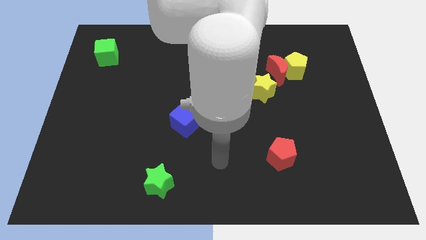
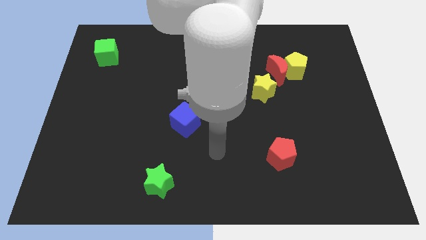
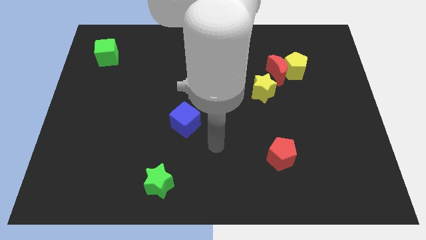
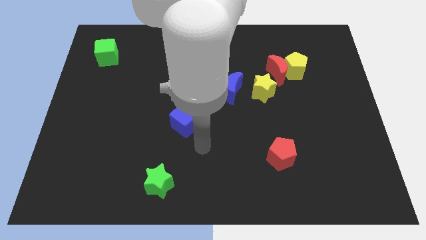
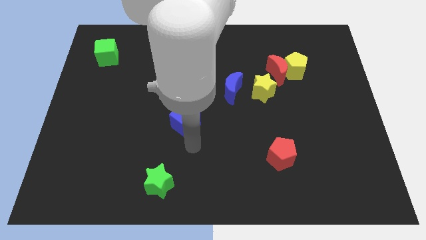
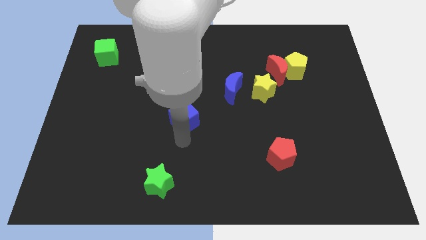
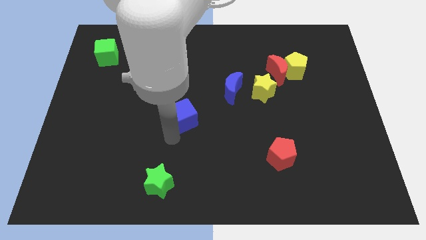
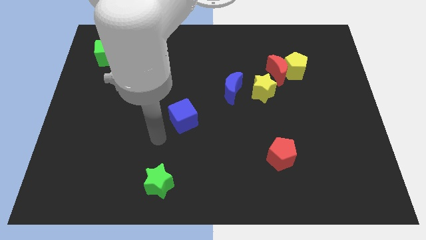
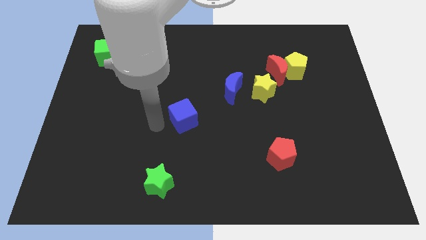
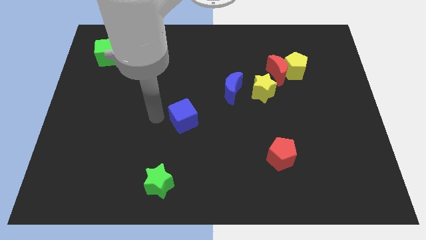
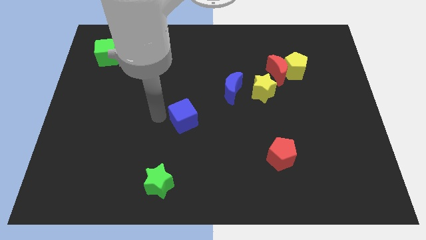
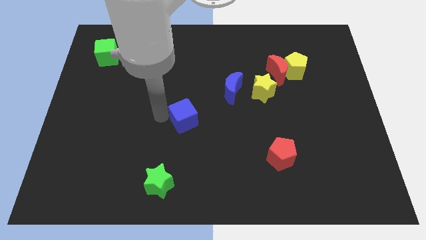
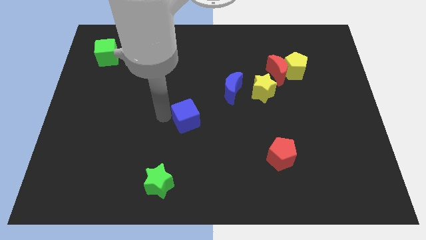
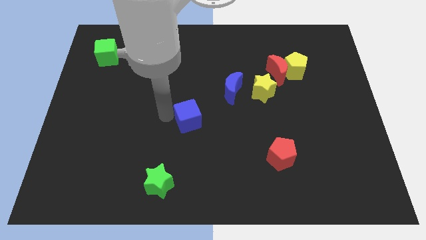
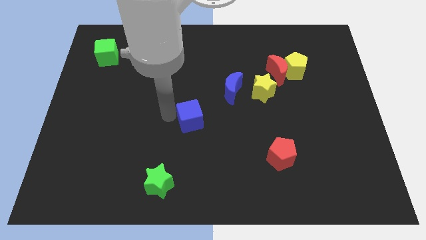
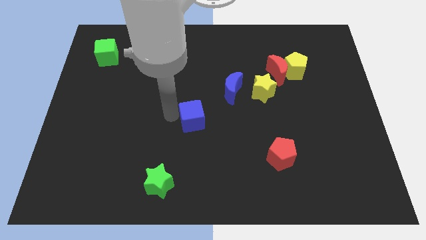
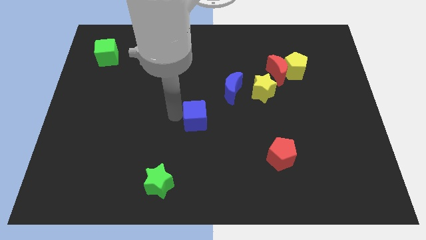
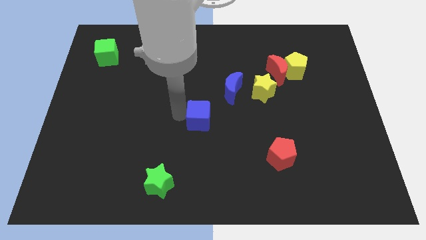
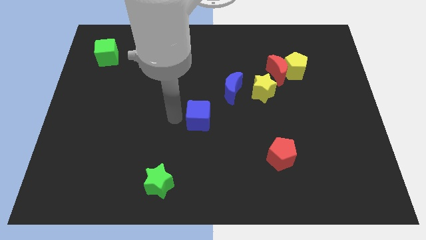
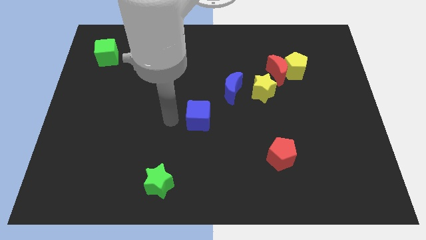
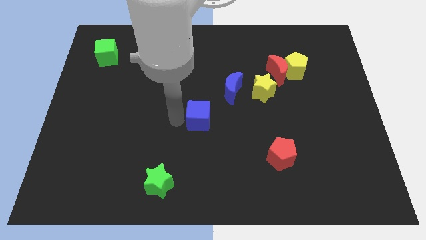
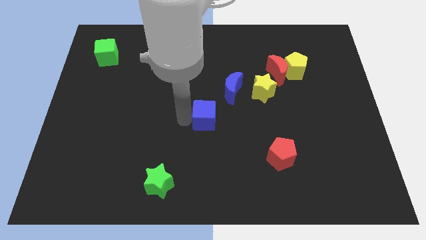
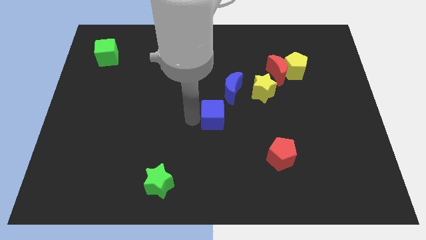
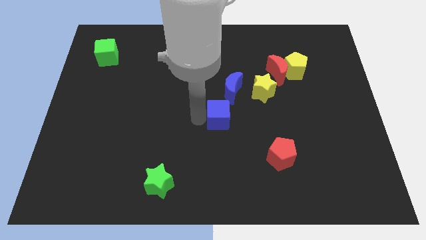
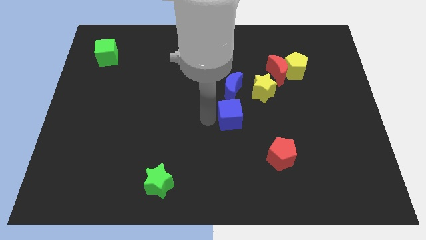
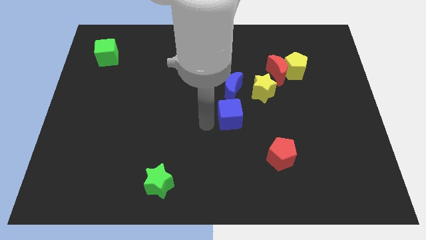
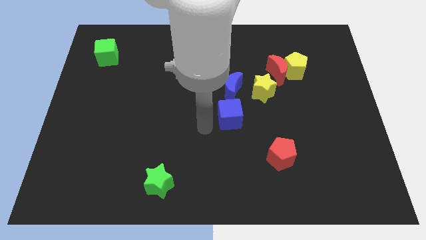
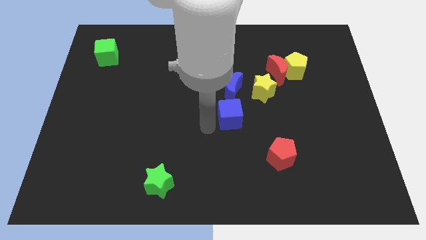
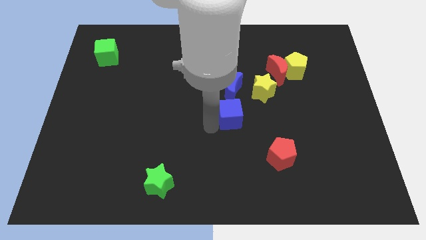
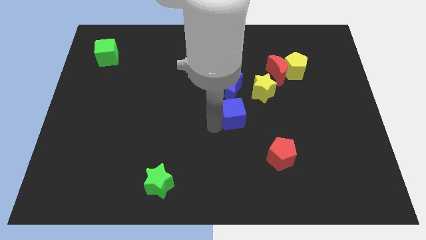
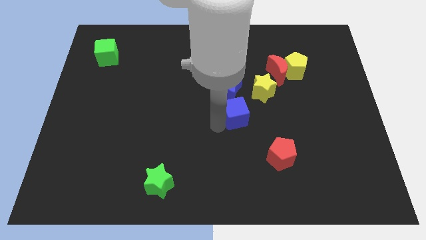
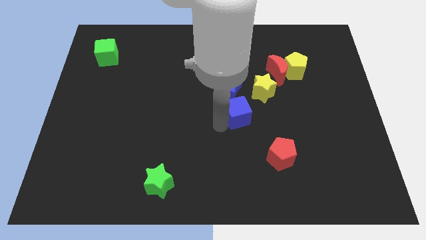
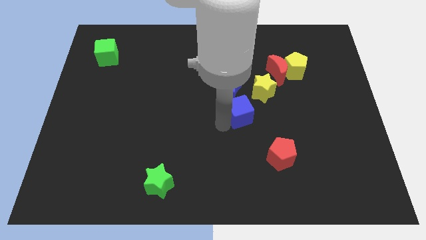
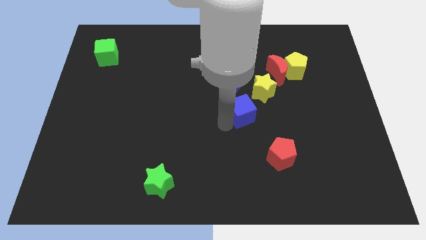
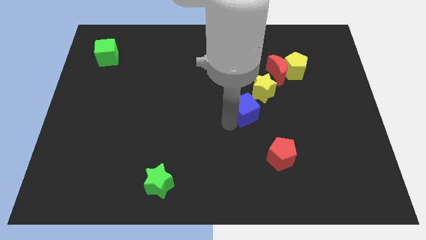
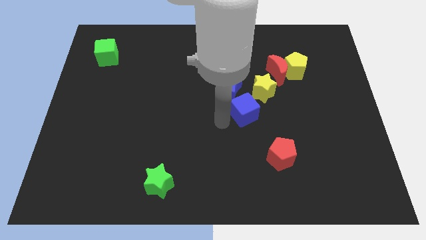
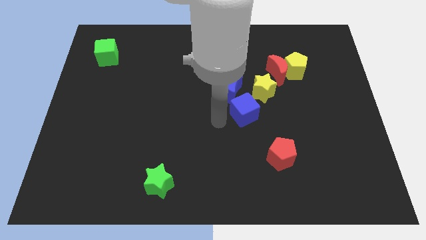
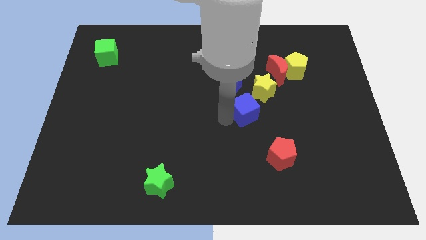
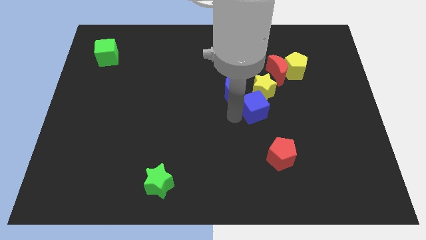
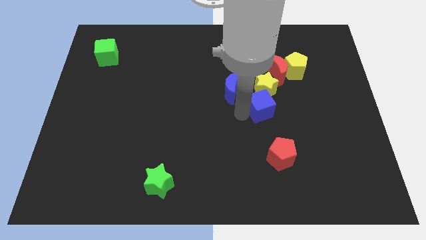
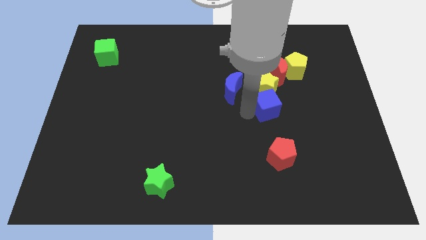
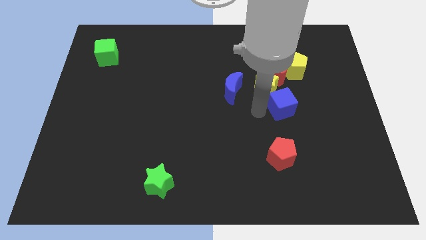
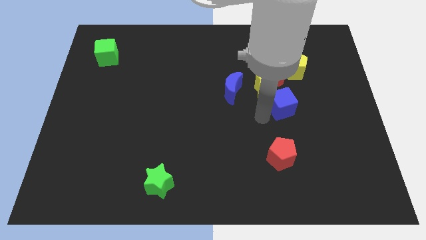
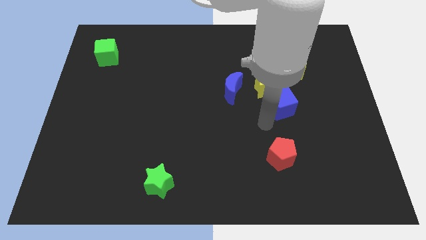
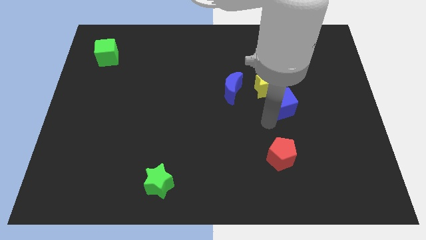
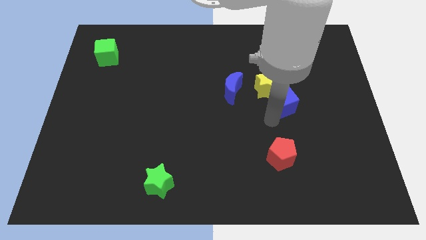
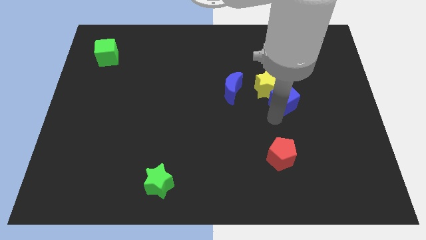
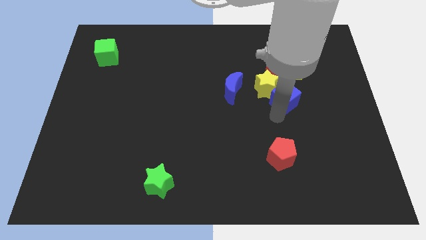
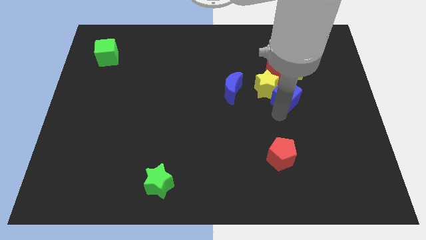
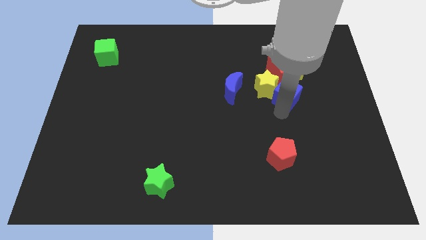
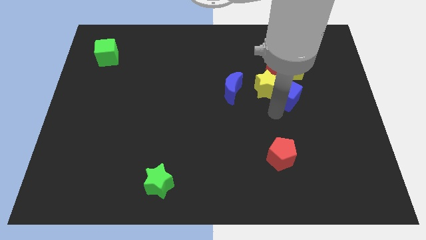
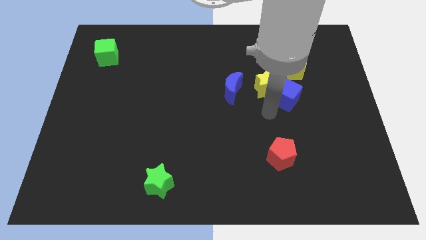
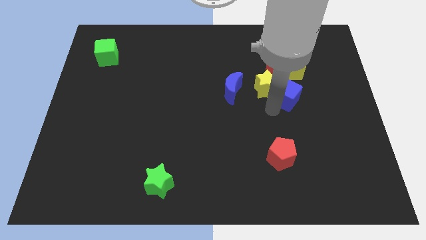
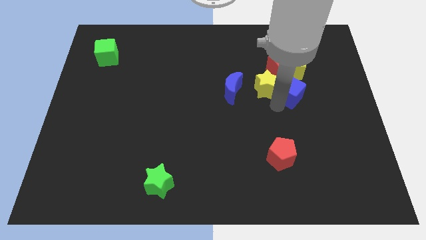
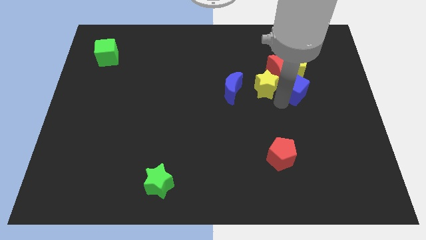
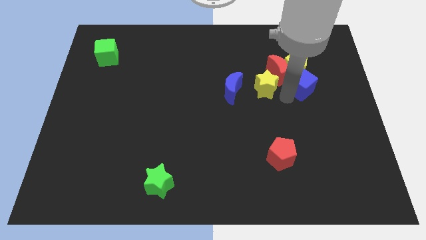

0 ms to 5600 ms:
push the blue cube just right of the red moon

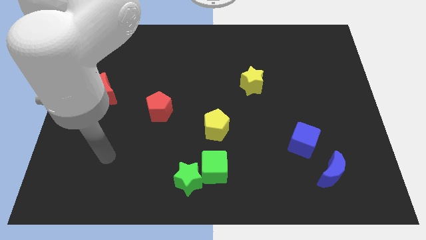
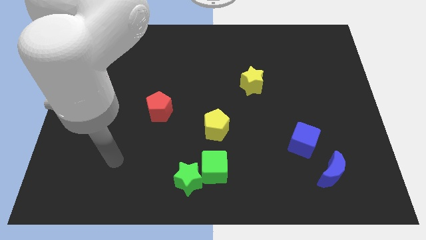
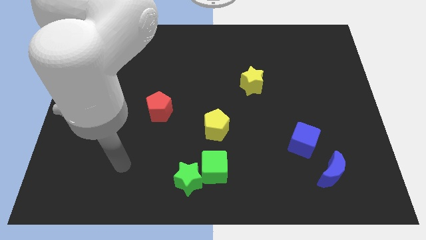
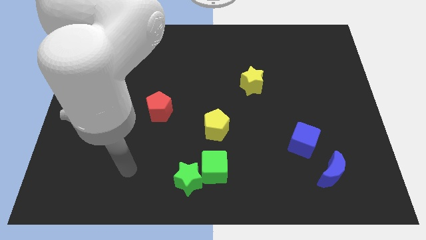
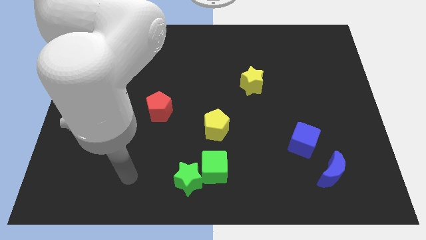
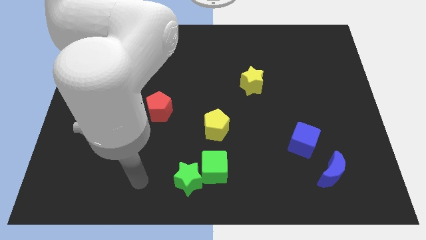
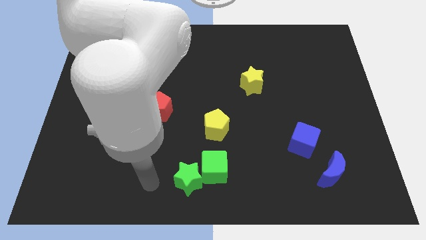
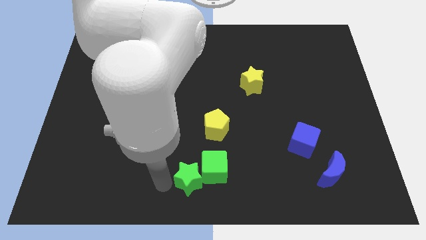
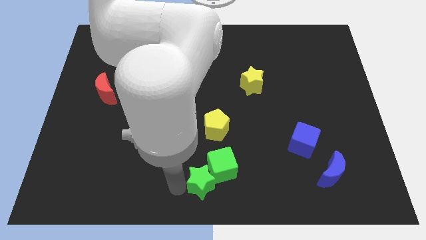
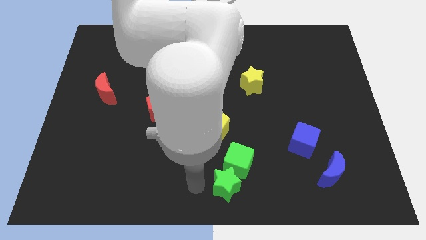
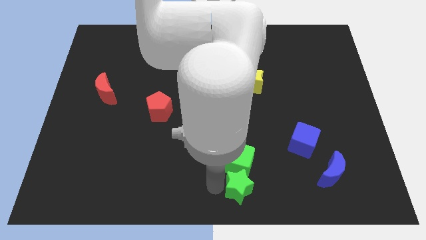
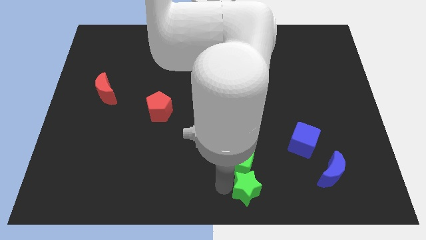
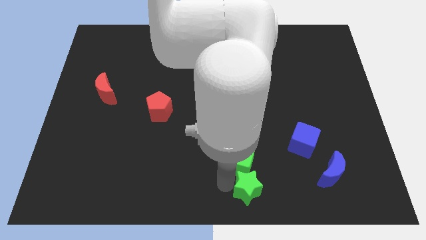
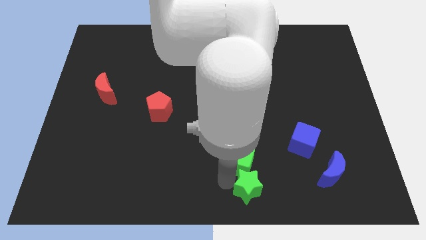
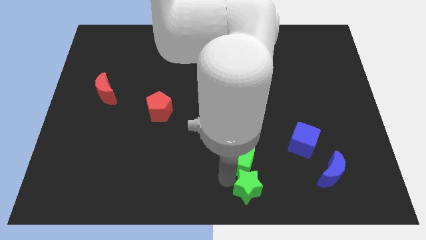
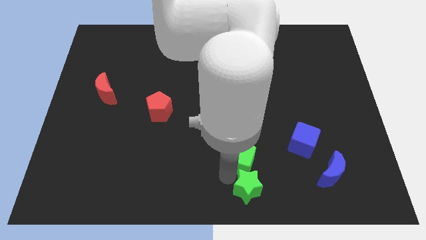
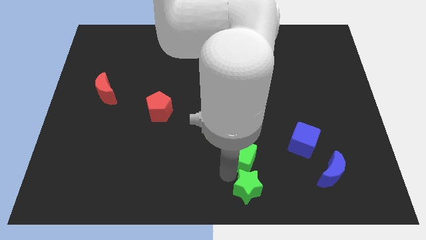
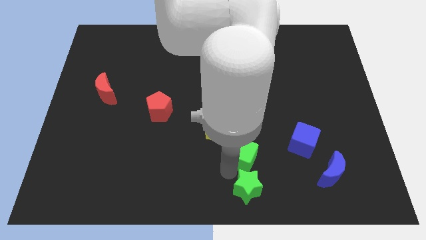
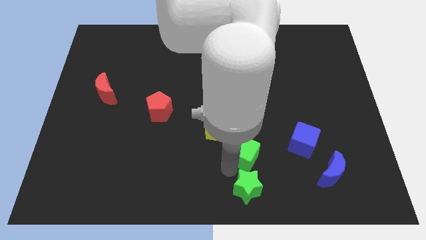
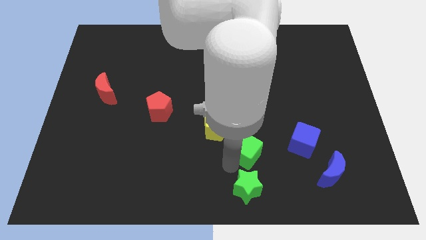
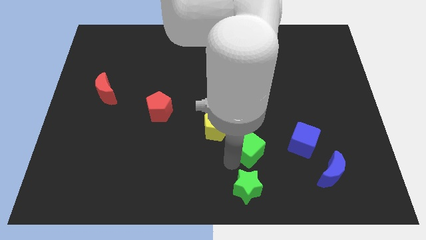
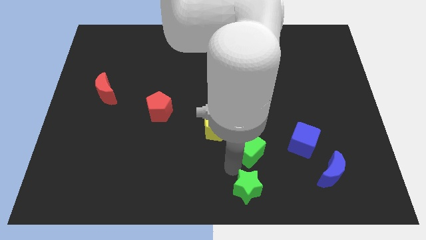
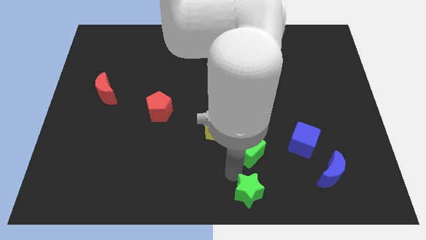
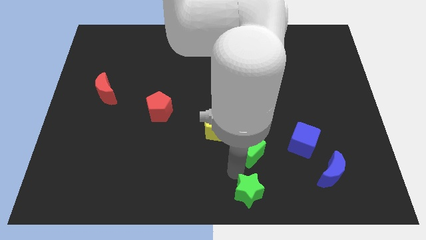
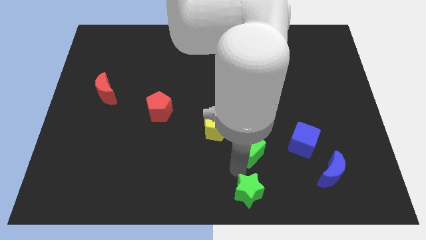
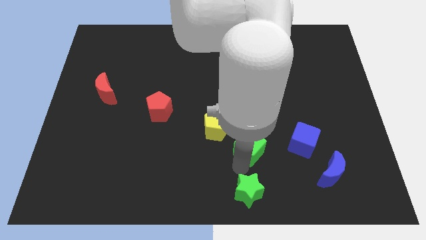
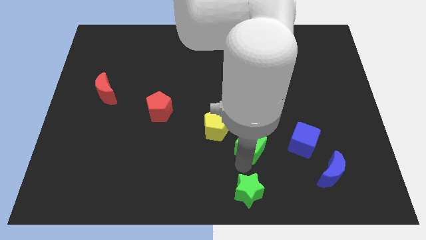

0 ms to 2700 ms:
move the green cube just right of the yellow pentagon
